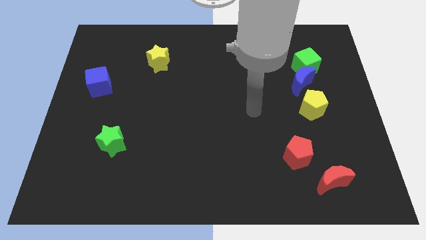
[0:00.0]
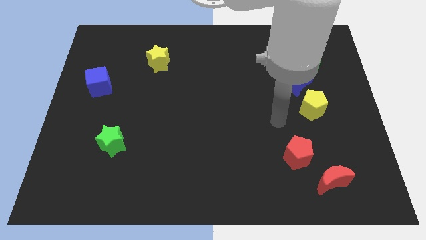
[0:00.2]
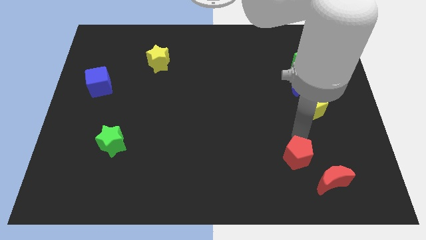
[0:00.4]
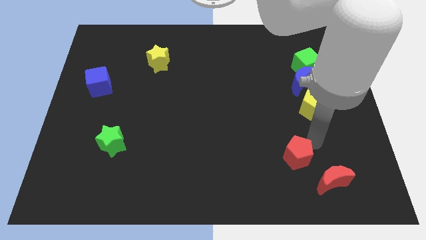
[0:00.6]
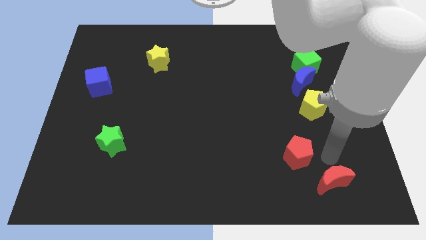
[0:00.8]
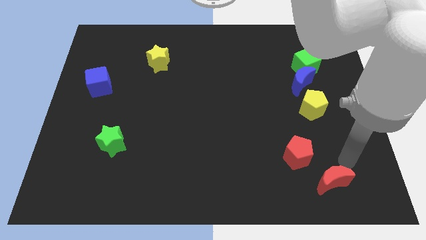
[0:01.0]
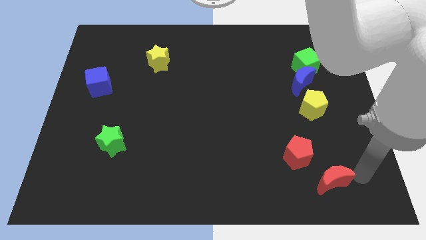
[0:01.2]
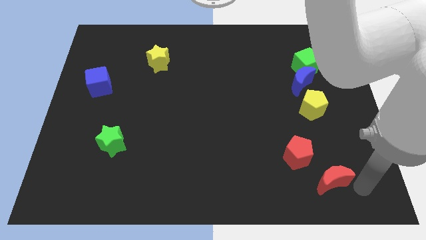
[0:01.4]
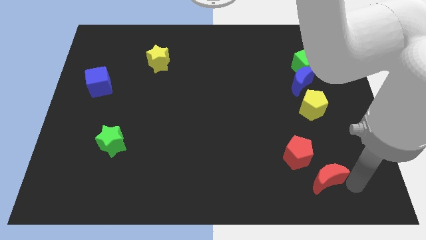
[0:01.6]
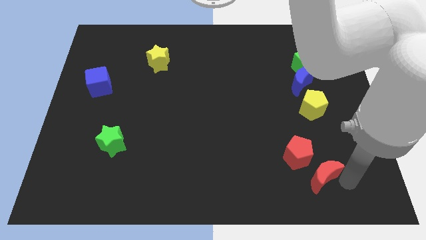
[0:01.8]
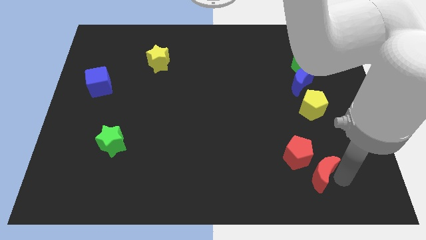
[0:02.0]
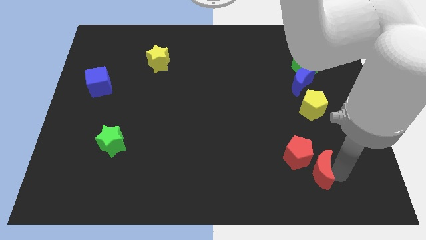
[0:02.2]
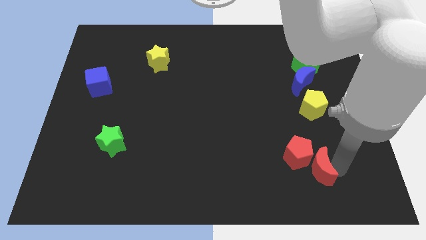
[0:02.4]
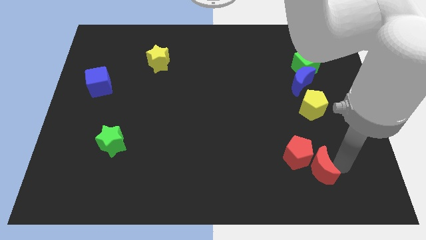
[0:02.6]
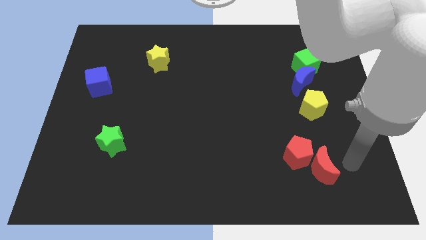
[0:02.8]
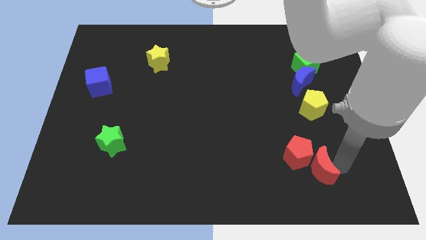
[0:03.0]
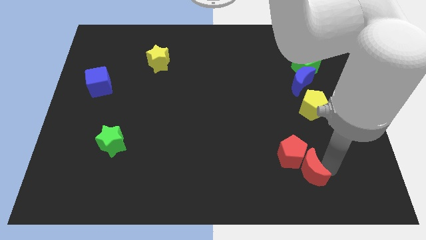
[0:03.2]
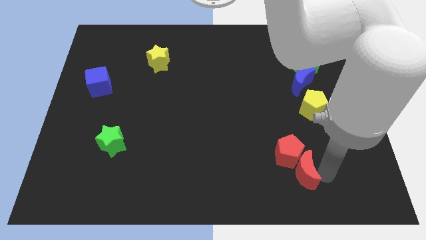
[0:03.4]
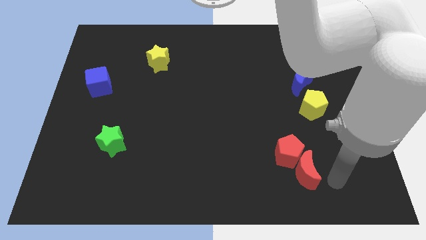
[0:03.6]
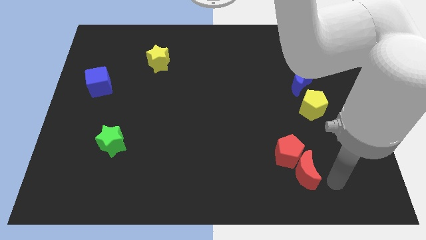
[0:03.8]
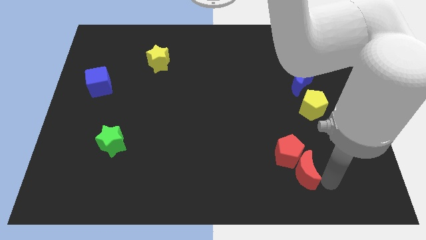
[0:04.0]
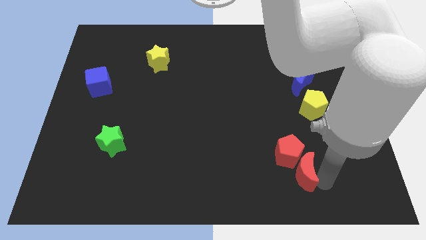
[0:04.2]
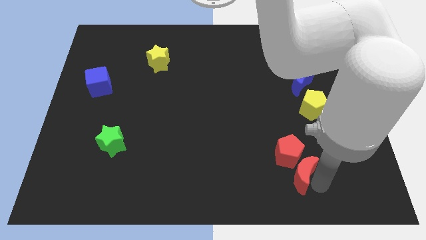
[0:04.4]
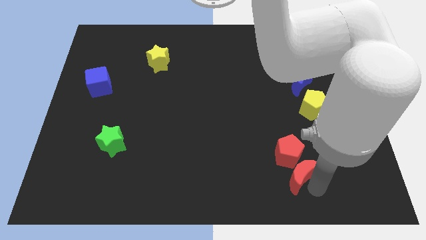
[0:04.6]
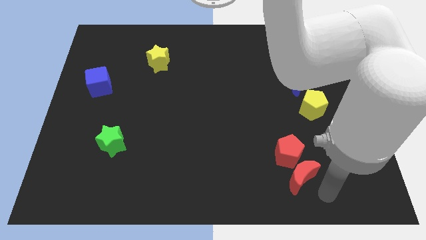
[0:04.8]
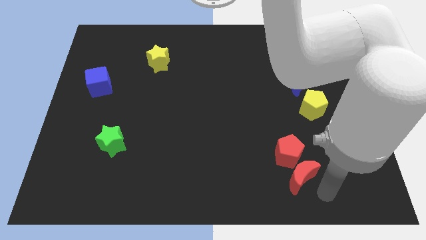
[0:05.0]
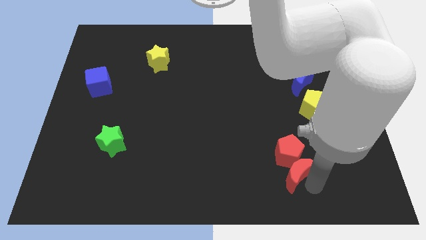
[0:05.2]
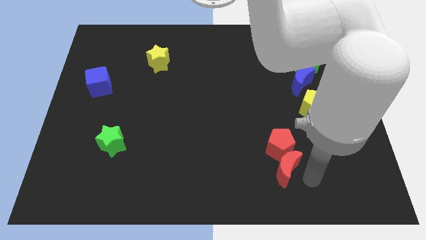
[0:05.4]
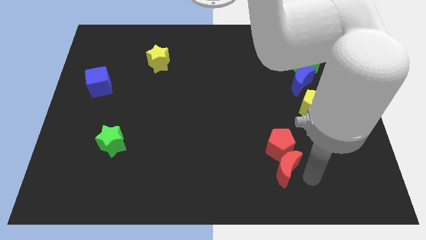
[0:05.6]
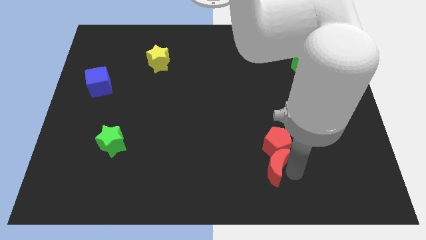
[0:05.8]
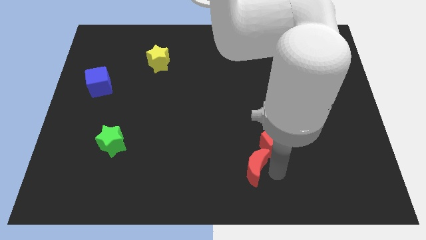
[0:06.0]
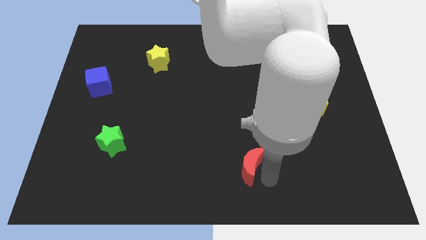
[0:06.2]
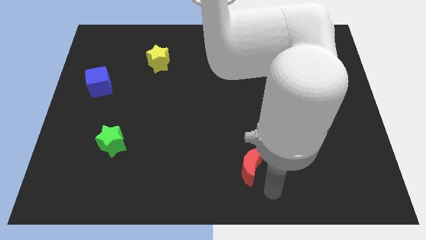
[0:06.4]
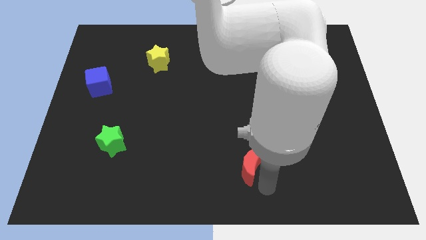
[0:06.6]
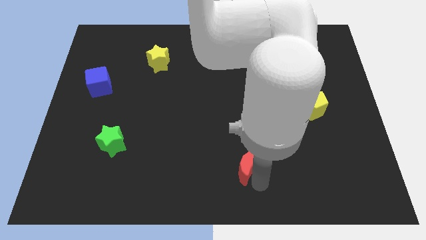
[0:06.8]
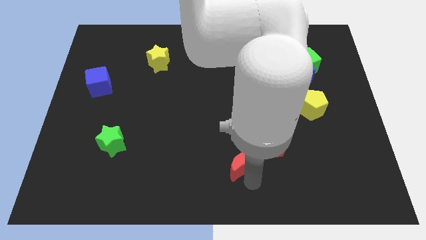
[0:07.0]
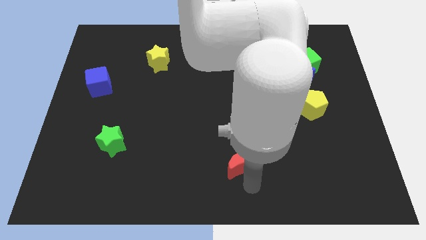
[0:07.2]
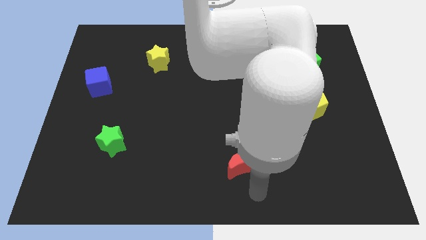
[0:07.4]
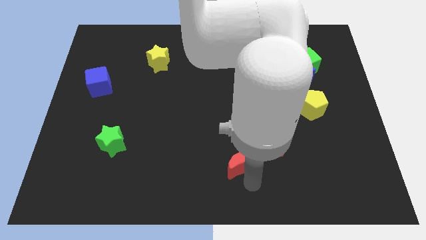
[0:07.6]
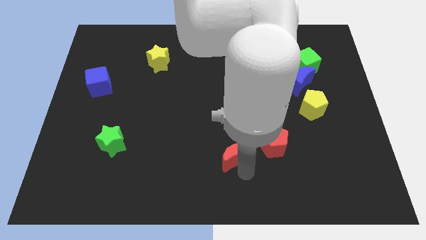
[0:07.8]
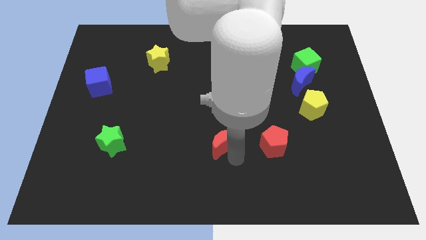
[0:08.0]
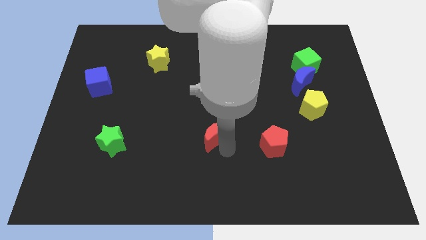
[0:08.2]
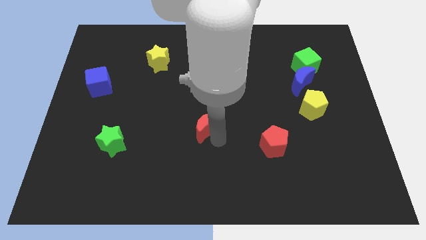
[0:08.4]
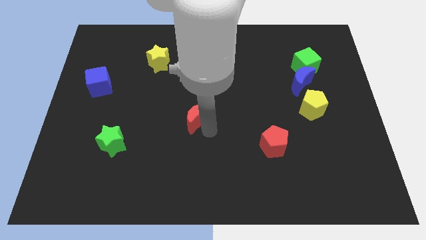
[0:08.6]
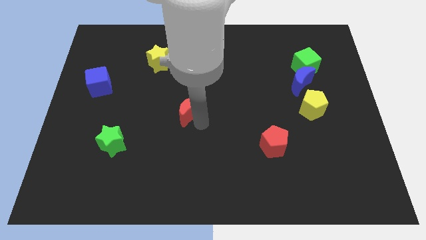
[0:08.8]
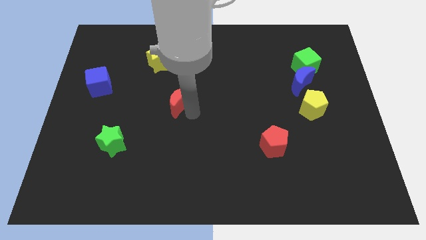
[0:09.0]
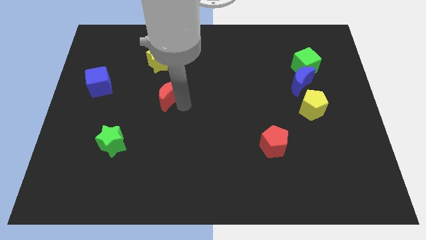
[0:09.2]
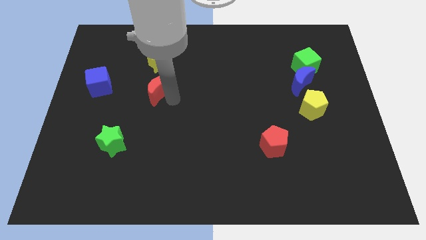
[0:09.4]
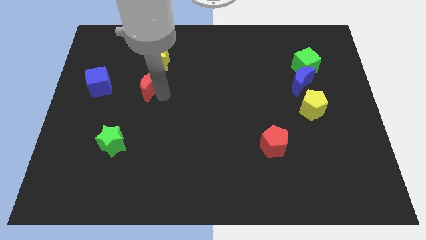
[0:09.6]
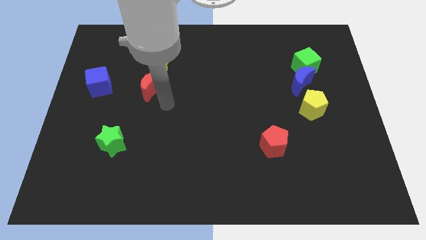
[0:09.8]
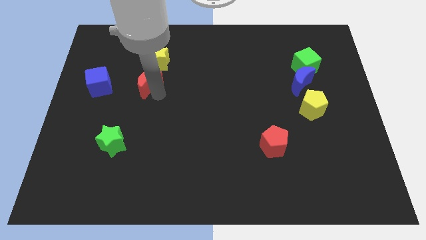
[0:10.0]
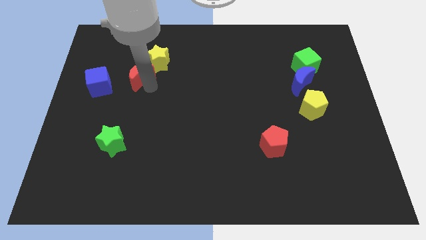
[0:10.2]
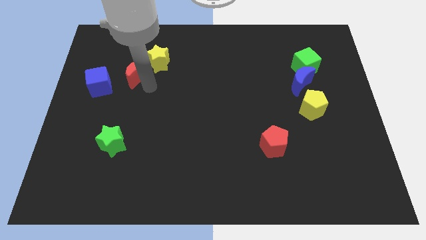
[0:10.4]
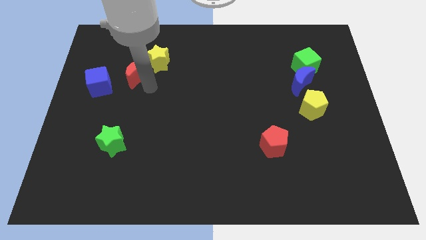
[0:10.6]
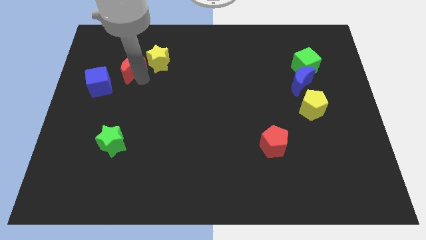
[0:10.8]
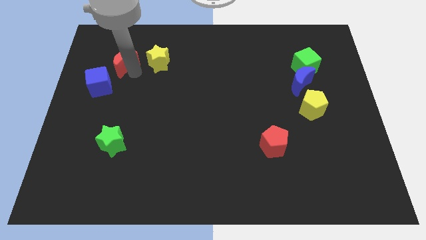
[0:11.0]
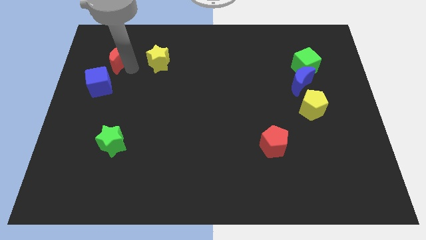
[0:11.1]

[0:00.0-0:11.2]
put the red moon to the top of the blue cube

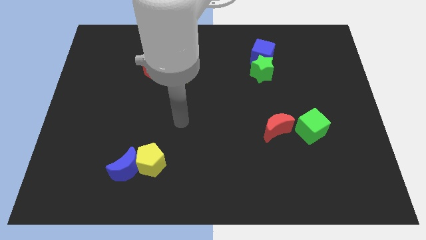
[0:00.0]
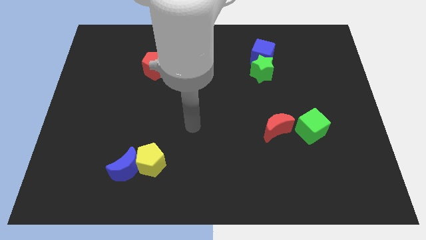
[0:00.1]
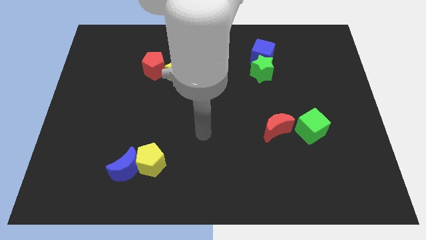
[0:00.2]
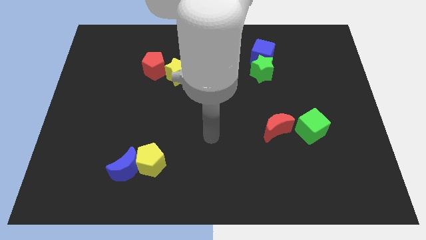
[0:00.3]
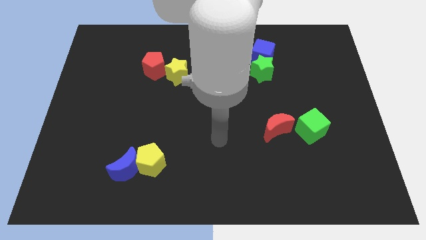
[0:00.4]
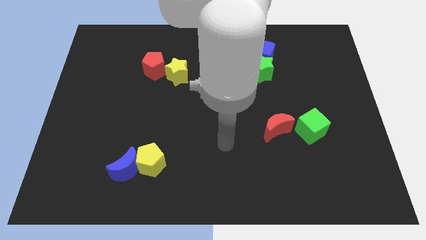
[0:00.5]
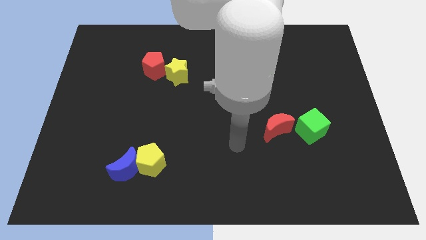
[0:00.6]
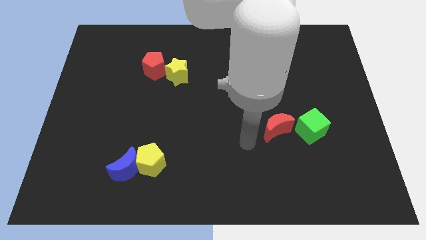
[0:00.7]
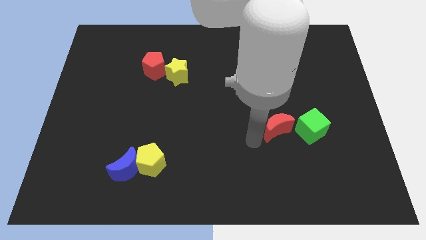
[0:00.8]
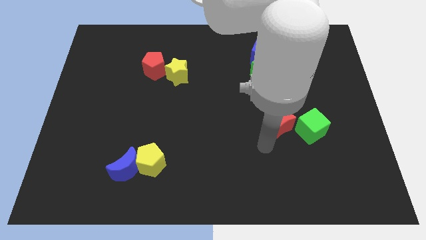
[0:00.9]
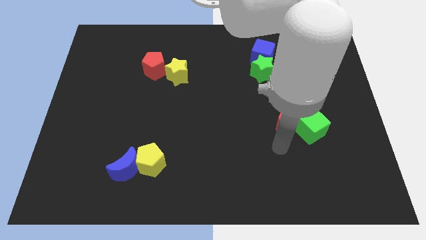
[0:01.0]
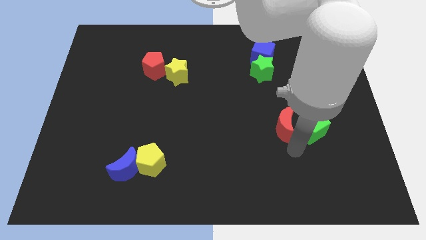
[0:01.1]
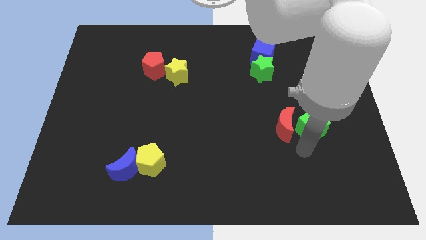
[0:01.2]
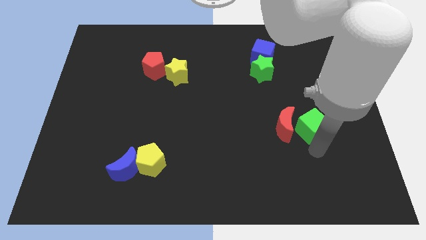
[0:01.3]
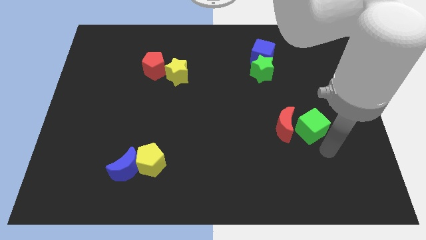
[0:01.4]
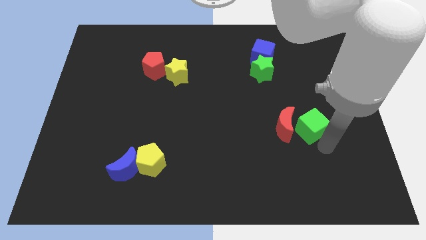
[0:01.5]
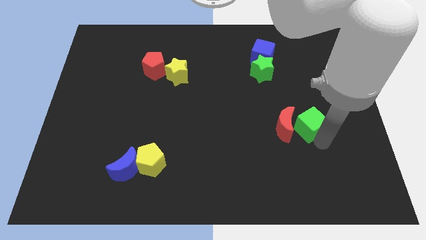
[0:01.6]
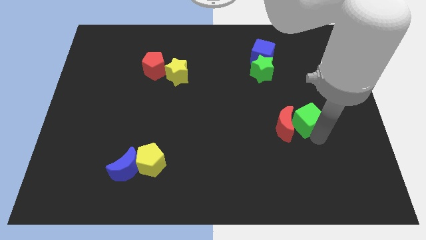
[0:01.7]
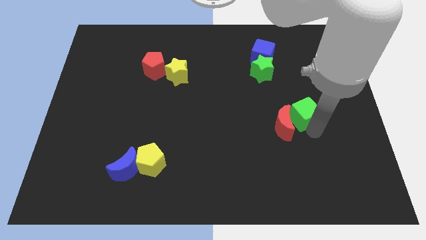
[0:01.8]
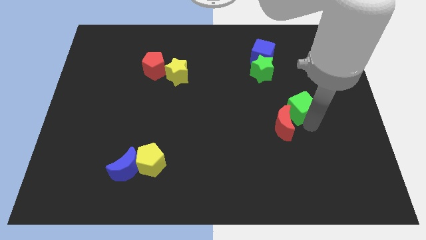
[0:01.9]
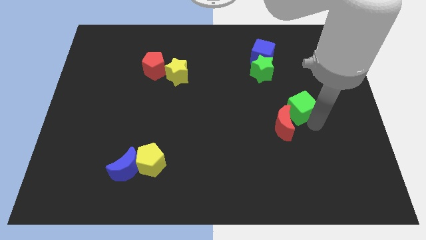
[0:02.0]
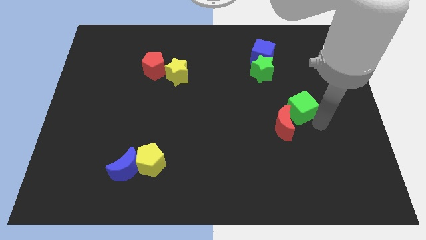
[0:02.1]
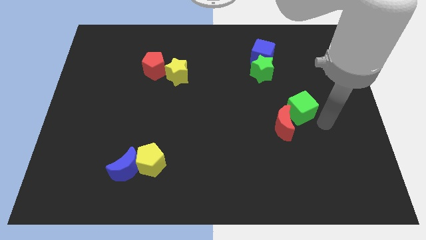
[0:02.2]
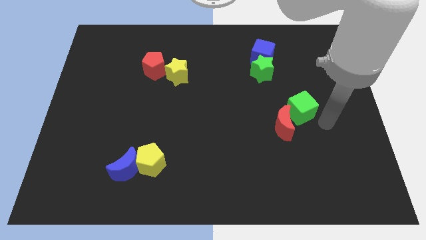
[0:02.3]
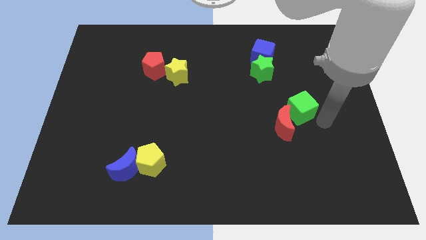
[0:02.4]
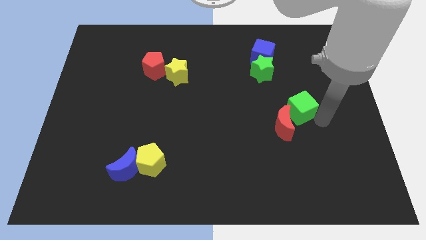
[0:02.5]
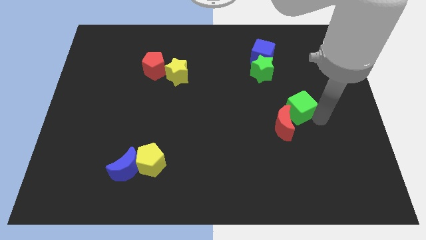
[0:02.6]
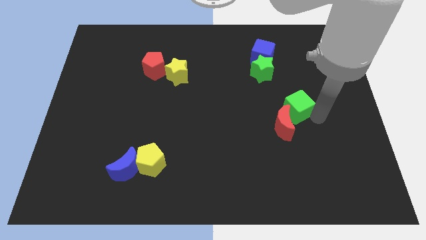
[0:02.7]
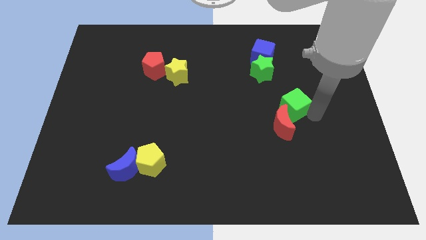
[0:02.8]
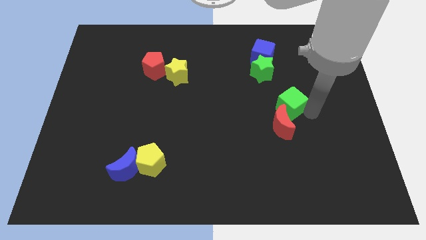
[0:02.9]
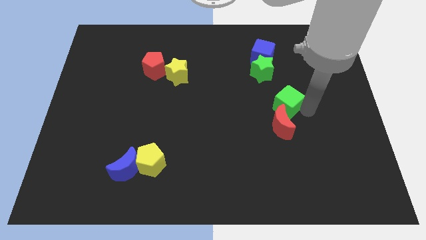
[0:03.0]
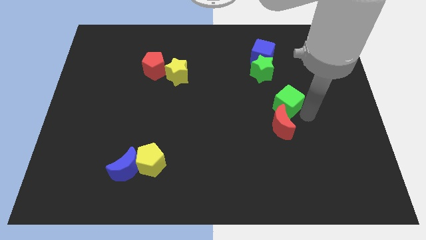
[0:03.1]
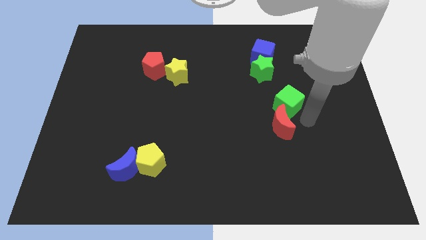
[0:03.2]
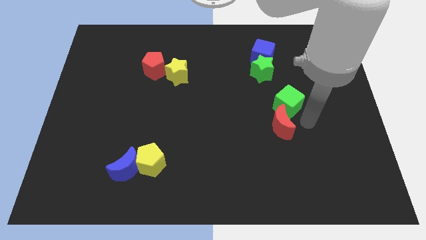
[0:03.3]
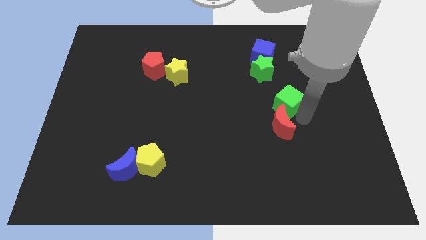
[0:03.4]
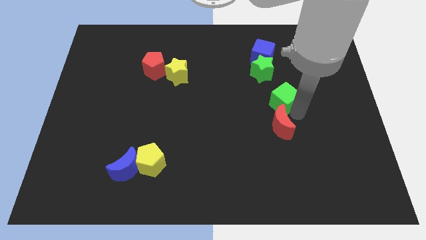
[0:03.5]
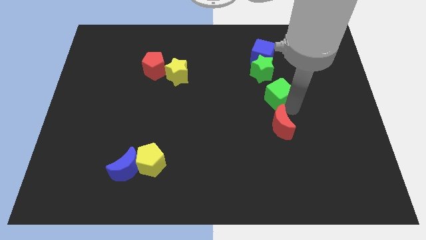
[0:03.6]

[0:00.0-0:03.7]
slide the green cube to the bottom of the blue cube
